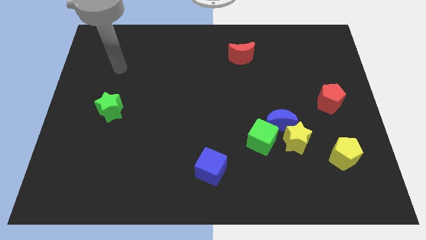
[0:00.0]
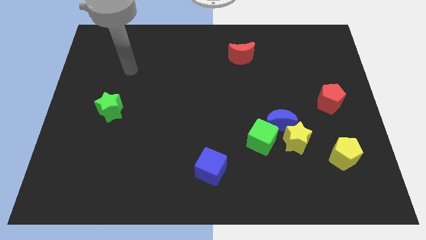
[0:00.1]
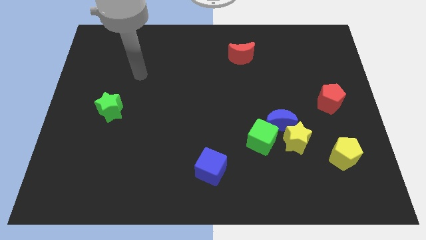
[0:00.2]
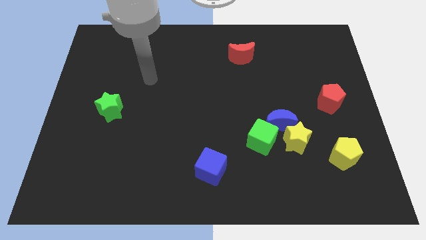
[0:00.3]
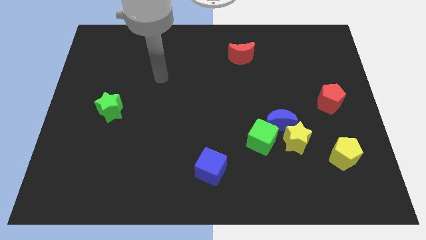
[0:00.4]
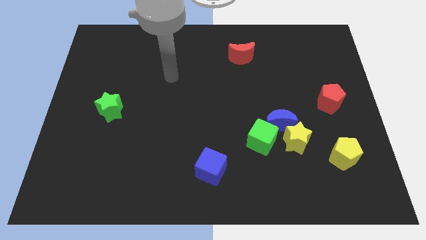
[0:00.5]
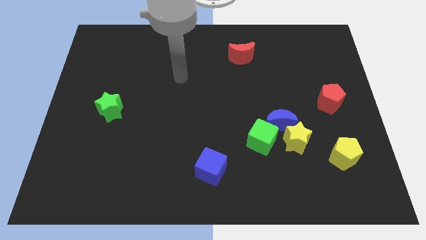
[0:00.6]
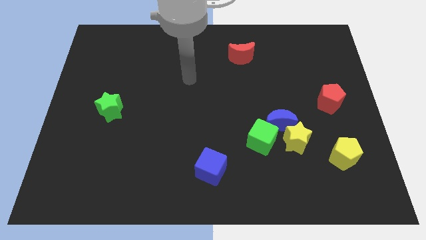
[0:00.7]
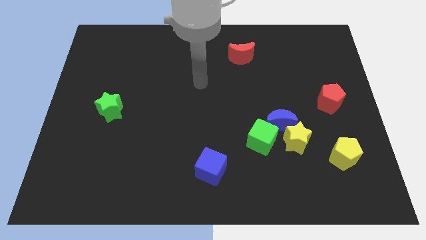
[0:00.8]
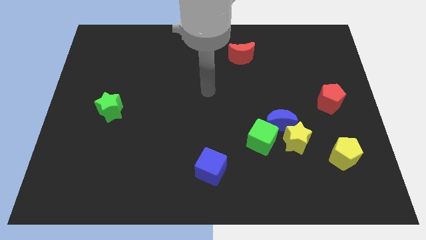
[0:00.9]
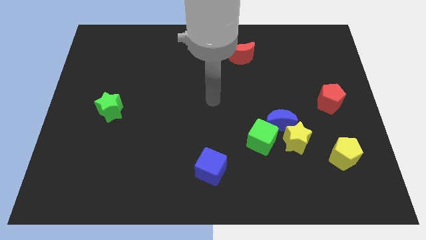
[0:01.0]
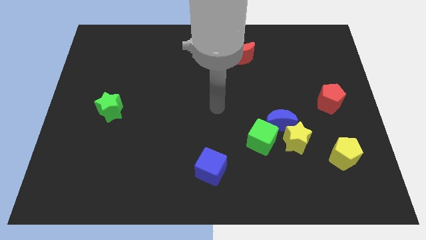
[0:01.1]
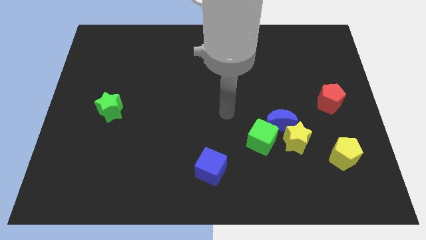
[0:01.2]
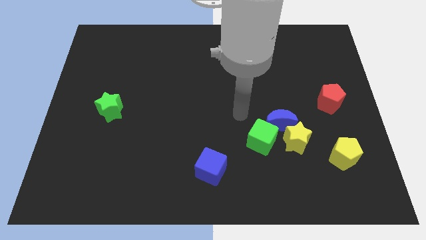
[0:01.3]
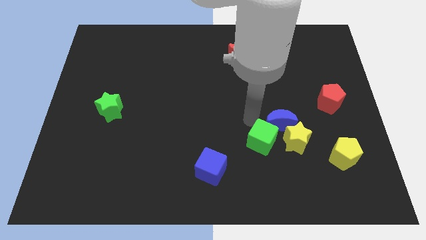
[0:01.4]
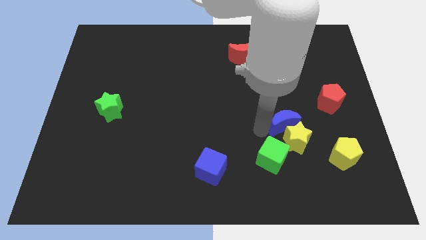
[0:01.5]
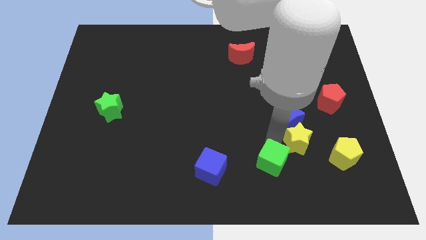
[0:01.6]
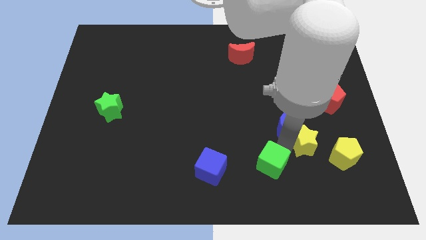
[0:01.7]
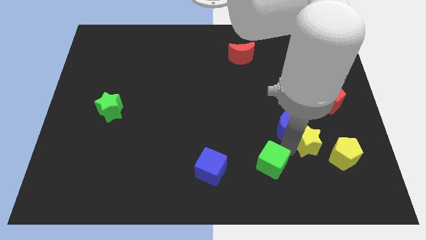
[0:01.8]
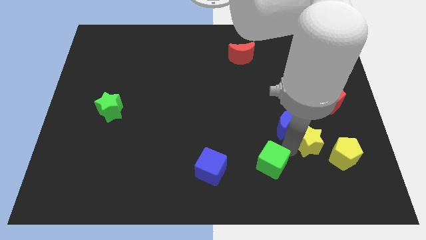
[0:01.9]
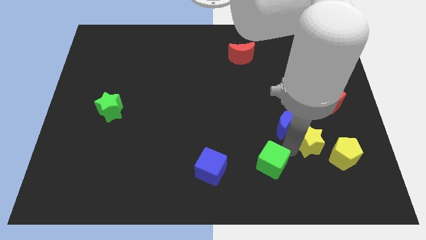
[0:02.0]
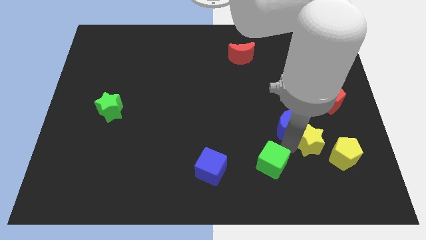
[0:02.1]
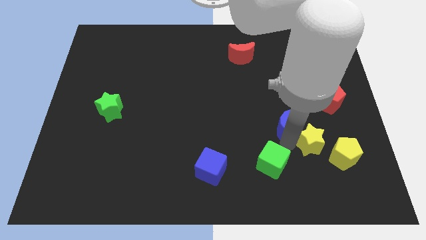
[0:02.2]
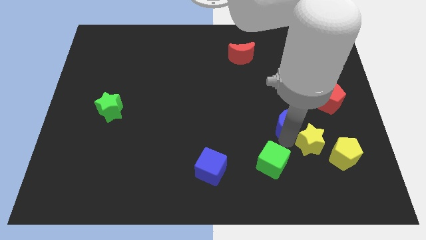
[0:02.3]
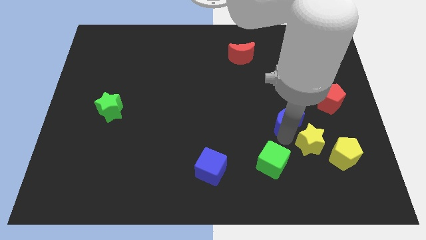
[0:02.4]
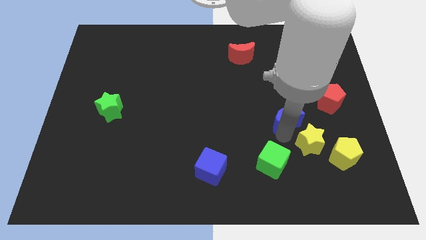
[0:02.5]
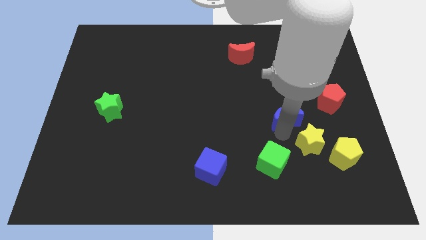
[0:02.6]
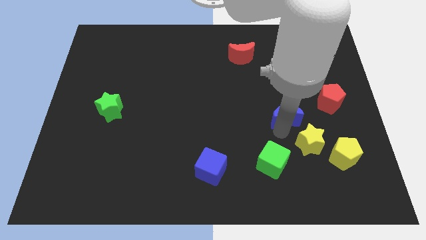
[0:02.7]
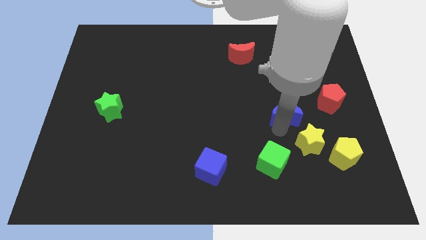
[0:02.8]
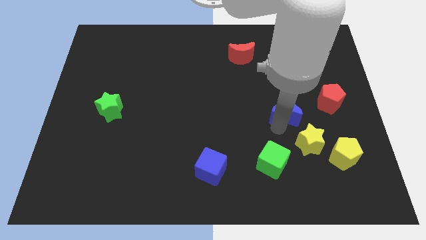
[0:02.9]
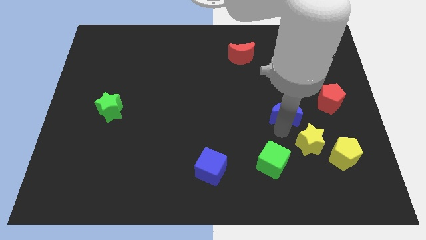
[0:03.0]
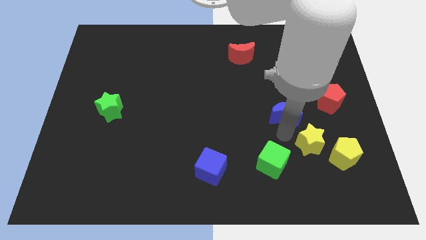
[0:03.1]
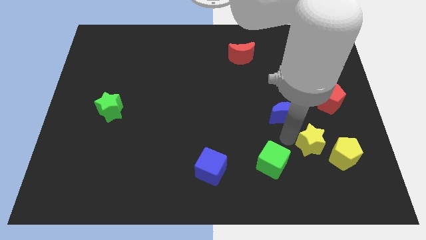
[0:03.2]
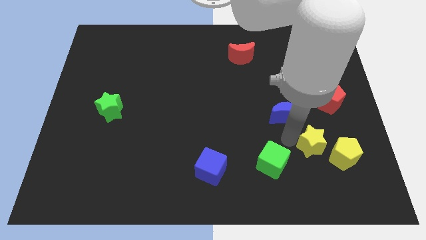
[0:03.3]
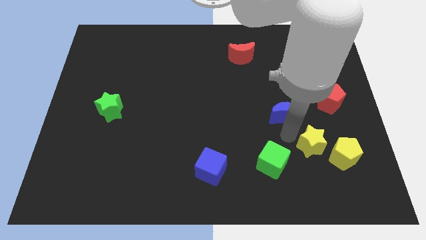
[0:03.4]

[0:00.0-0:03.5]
move the blue moon away from the yellow star and green cube

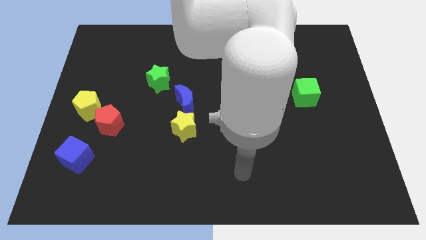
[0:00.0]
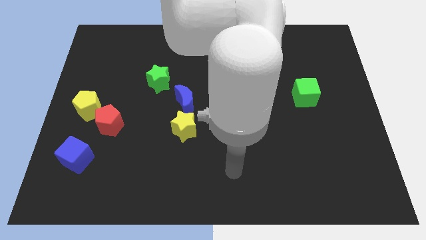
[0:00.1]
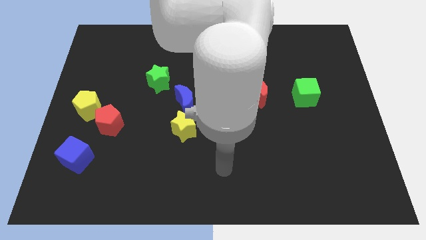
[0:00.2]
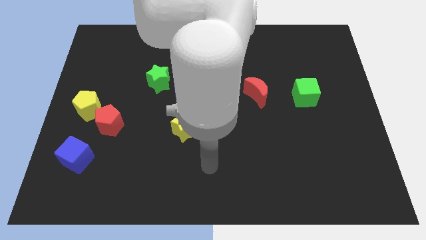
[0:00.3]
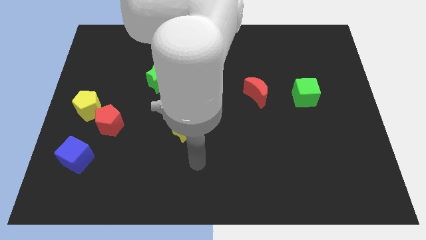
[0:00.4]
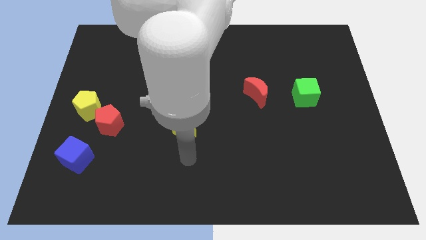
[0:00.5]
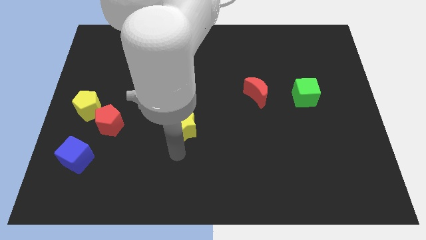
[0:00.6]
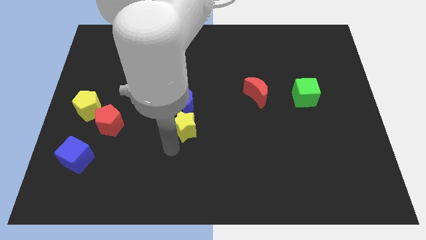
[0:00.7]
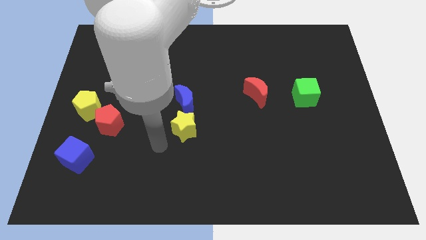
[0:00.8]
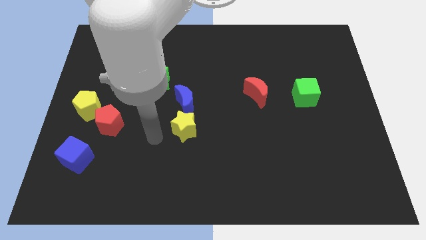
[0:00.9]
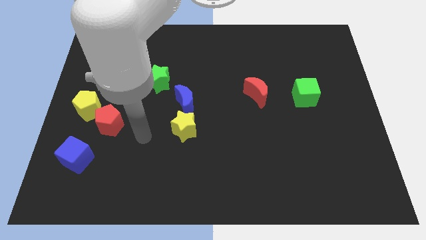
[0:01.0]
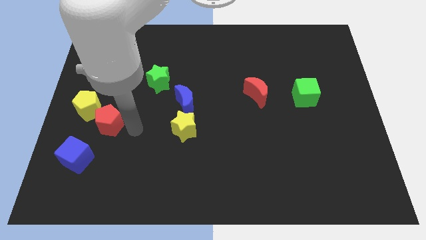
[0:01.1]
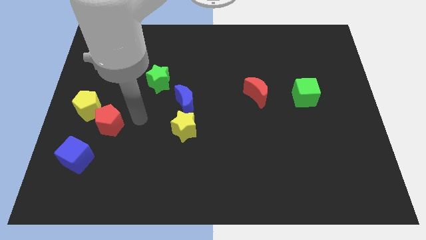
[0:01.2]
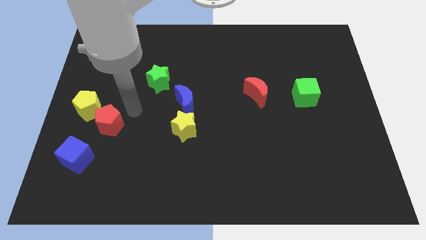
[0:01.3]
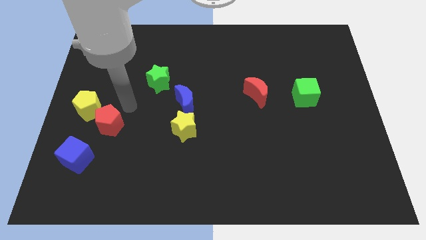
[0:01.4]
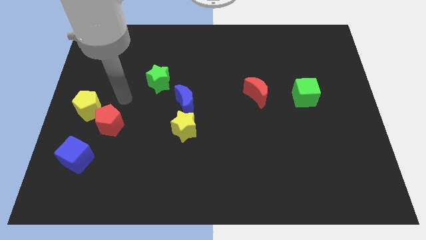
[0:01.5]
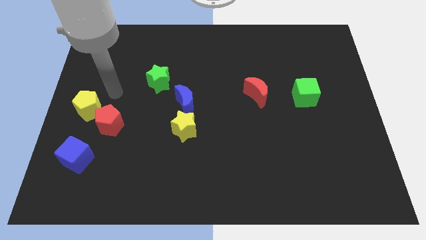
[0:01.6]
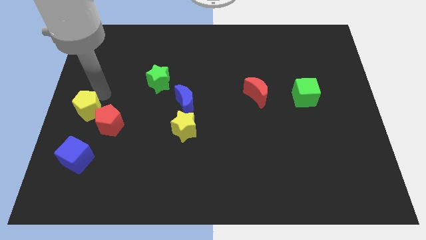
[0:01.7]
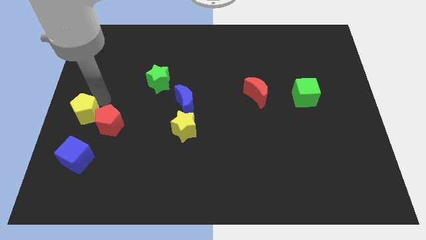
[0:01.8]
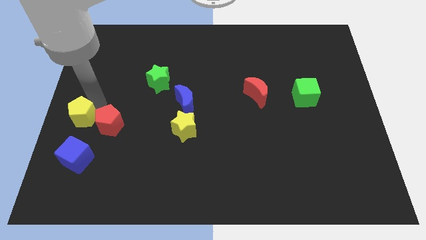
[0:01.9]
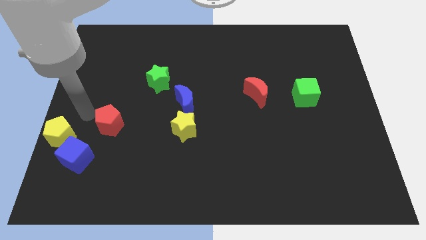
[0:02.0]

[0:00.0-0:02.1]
pull the red pentagon apart from the yellow pentagon

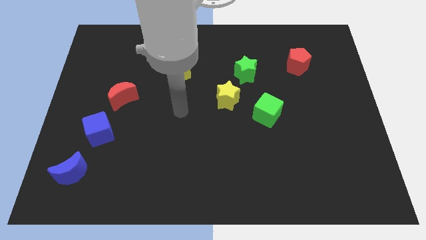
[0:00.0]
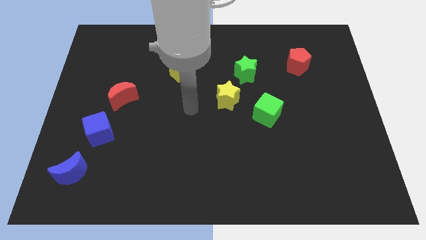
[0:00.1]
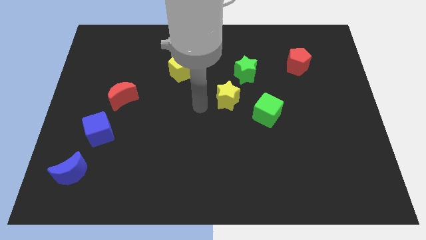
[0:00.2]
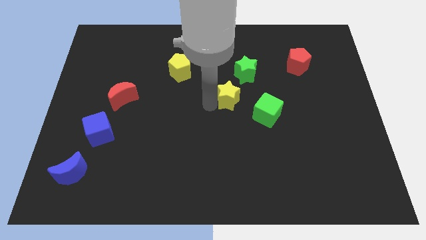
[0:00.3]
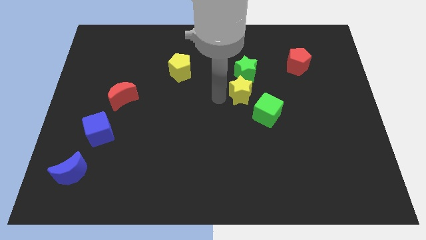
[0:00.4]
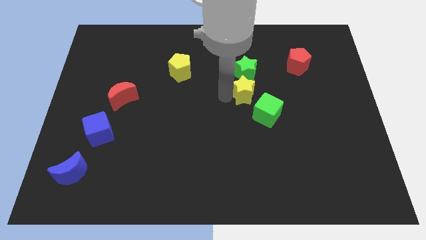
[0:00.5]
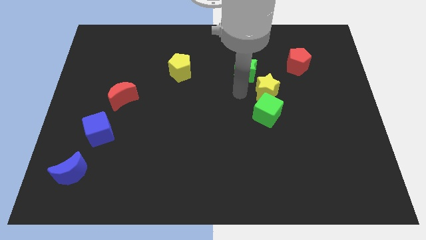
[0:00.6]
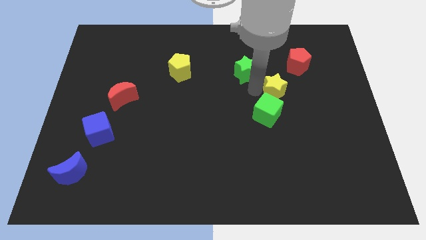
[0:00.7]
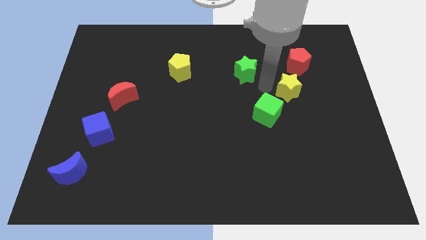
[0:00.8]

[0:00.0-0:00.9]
pull the green star apart from the yellow star

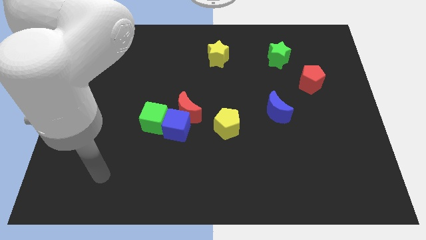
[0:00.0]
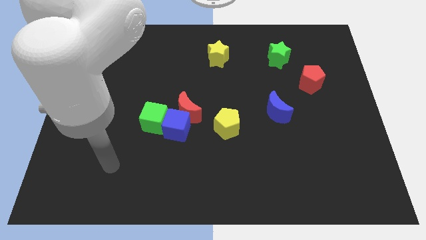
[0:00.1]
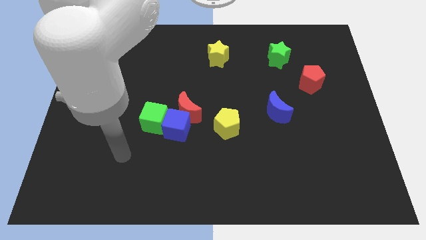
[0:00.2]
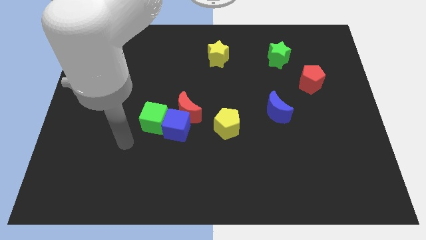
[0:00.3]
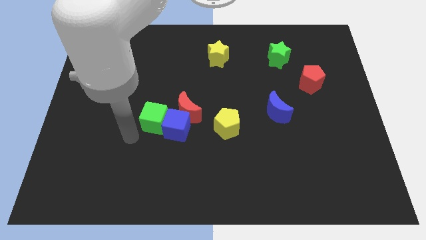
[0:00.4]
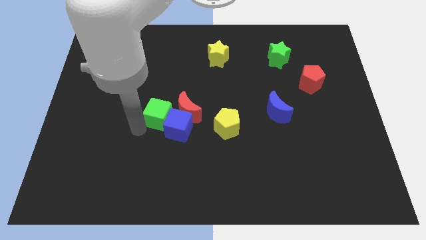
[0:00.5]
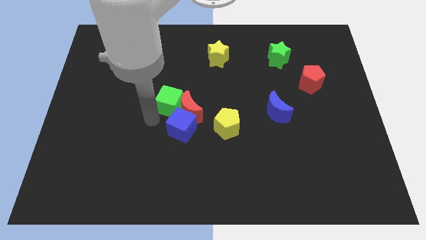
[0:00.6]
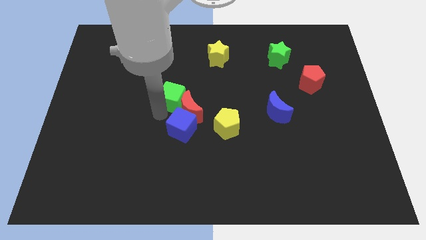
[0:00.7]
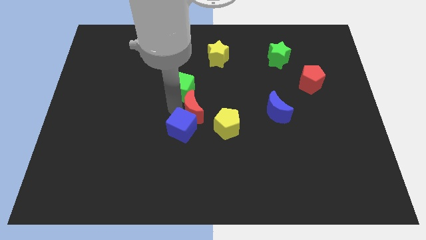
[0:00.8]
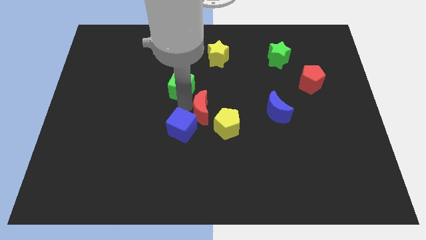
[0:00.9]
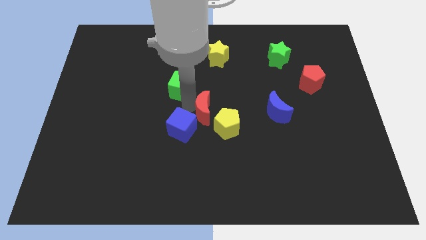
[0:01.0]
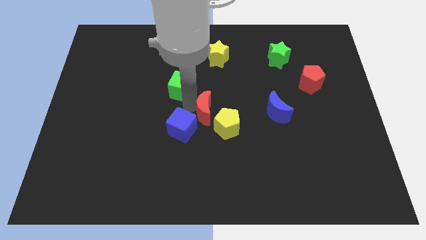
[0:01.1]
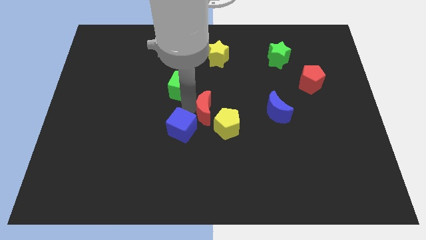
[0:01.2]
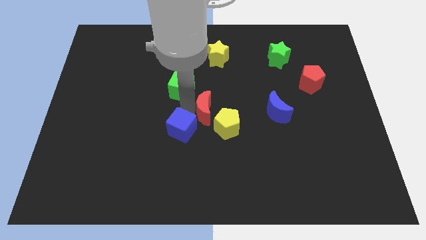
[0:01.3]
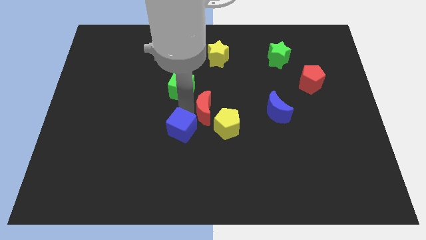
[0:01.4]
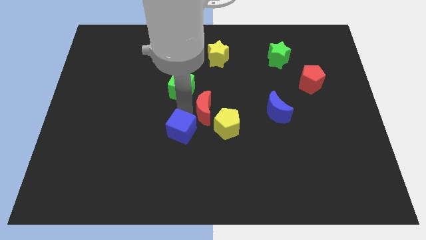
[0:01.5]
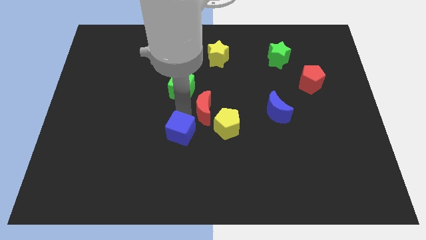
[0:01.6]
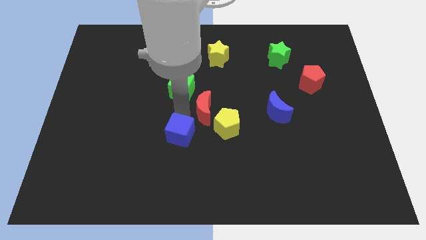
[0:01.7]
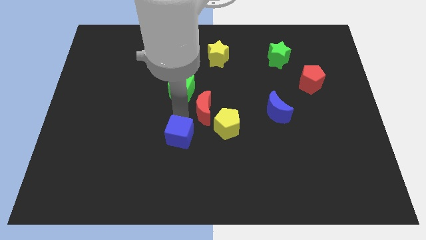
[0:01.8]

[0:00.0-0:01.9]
separate the blue cube from the red moon and green cube

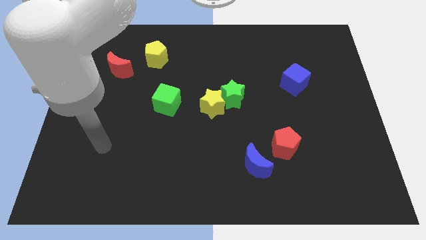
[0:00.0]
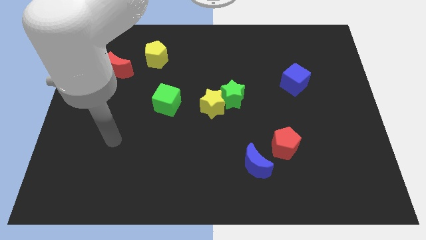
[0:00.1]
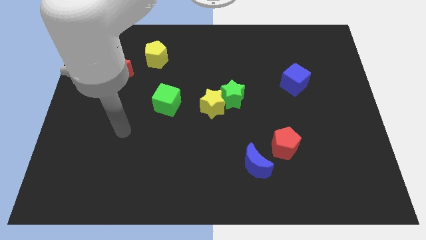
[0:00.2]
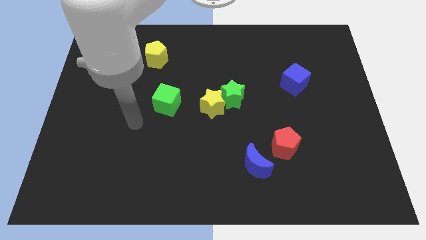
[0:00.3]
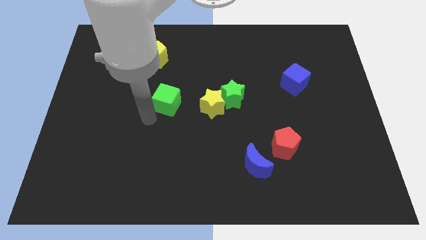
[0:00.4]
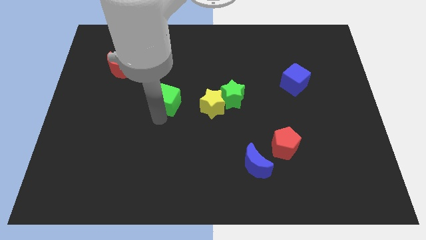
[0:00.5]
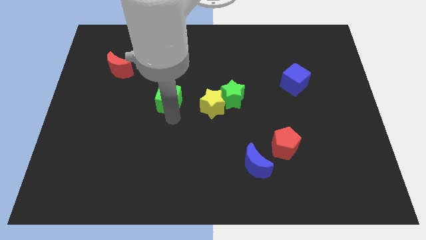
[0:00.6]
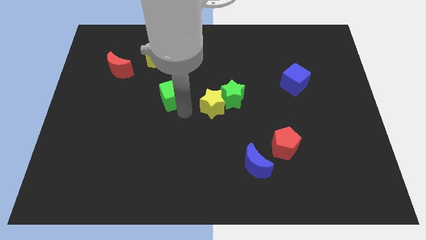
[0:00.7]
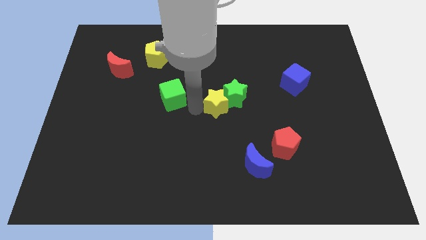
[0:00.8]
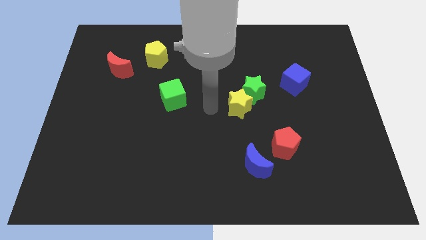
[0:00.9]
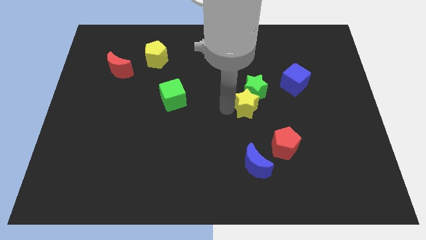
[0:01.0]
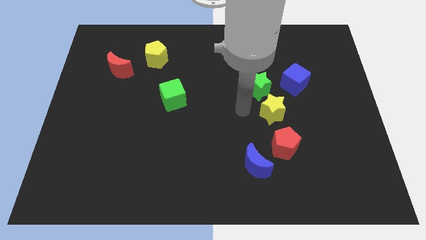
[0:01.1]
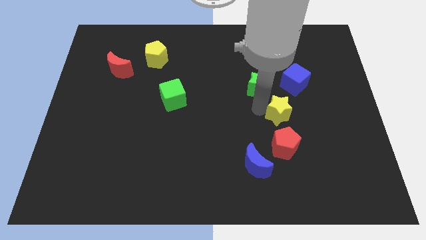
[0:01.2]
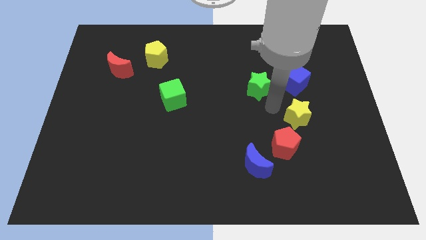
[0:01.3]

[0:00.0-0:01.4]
move the green star away from the yellow star
